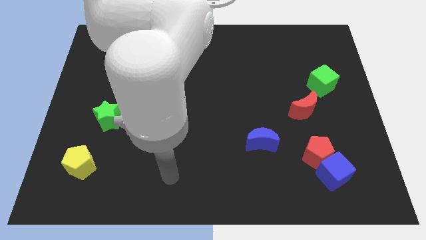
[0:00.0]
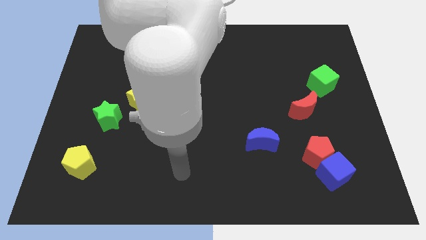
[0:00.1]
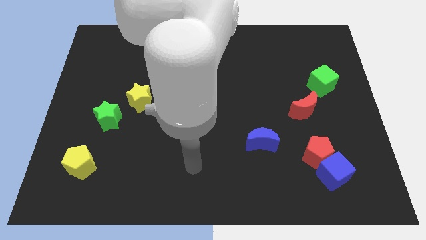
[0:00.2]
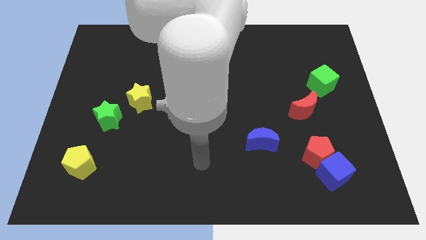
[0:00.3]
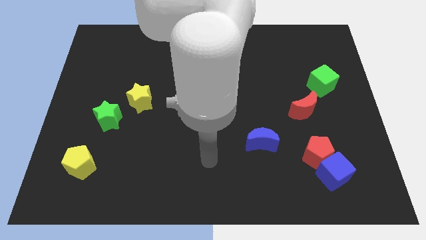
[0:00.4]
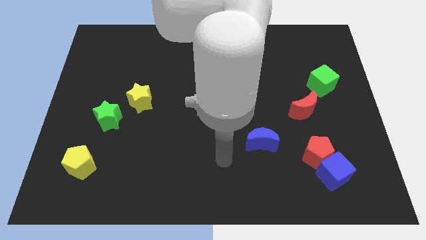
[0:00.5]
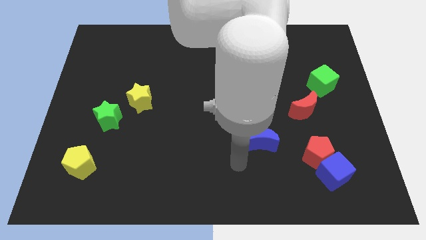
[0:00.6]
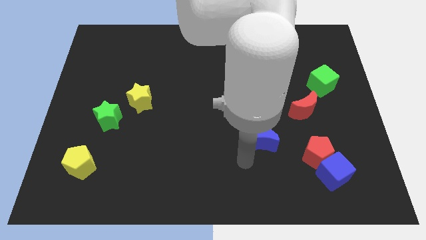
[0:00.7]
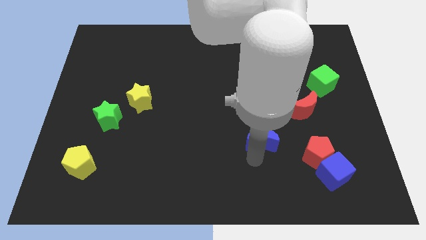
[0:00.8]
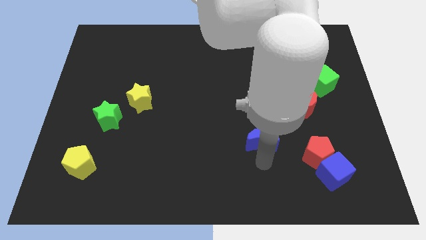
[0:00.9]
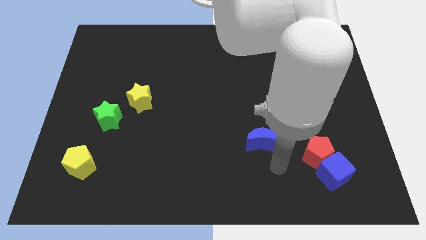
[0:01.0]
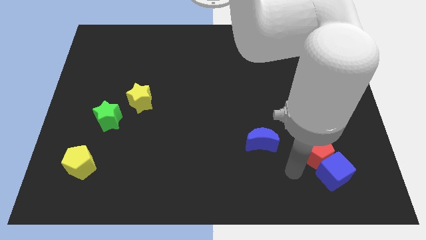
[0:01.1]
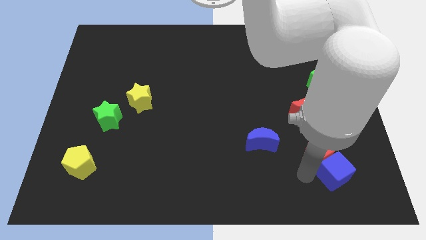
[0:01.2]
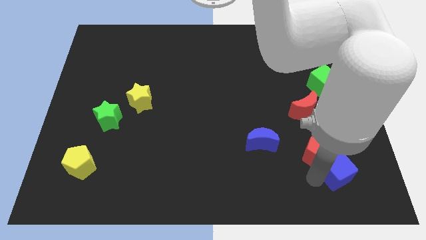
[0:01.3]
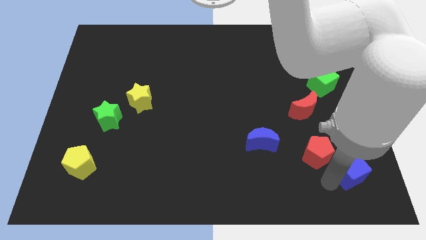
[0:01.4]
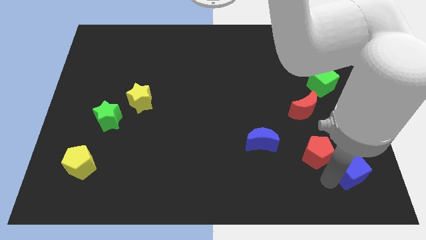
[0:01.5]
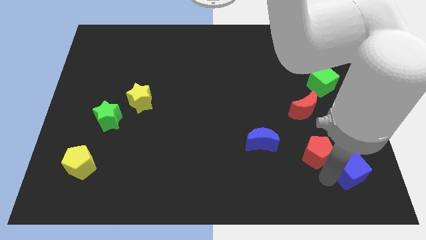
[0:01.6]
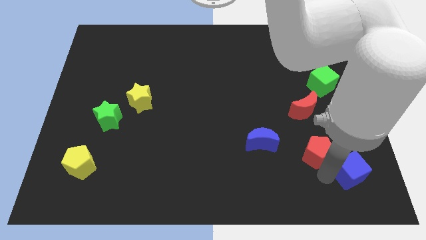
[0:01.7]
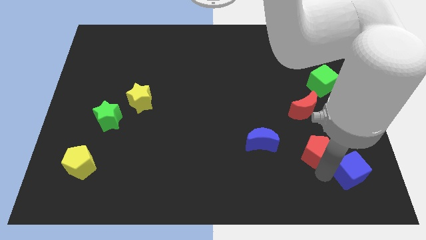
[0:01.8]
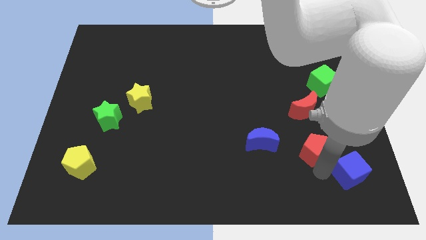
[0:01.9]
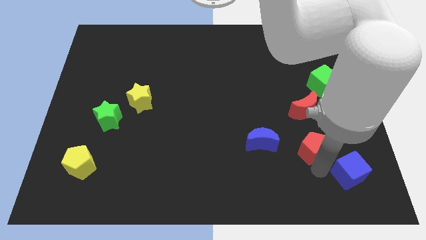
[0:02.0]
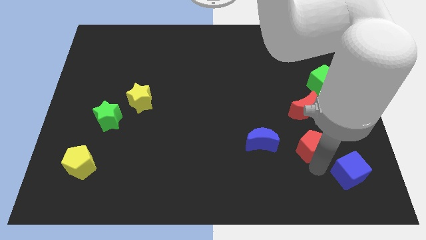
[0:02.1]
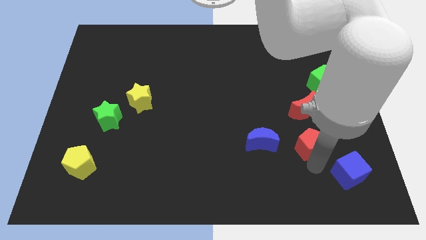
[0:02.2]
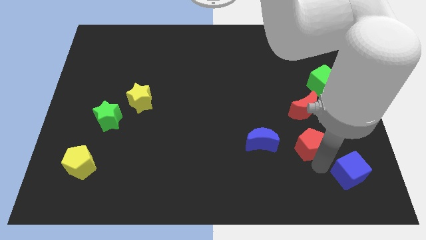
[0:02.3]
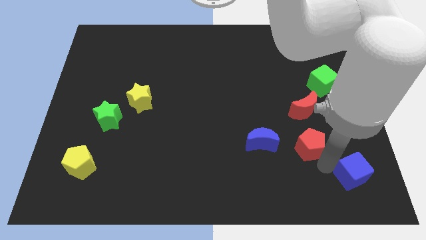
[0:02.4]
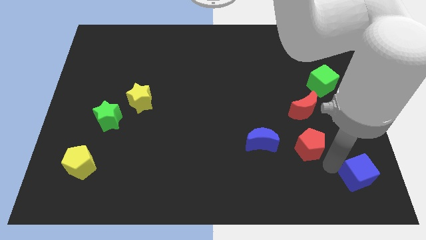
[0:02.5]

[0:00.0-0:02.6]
move the red pentagon away from the blue cube

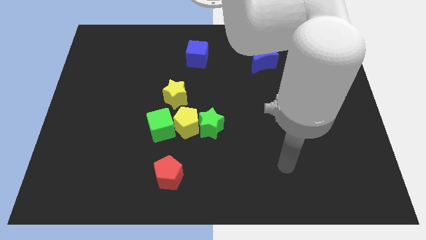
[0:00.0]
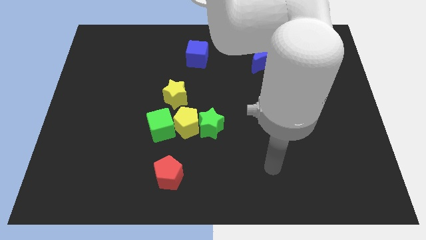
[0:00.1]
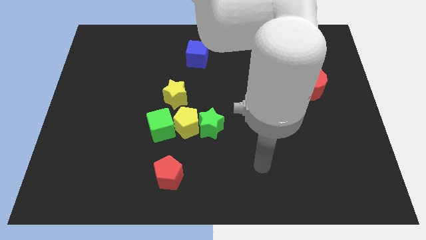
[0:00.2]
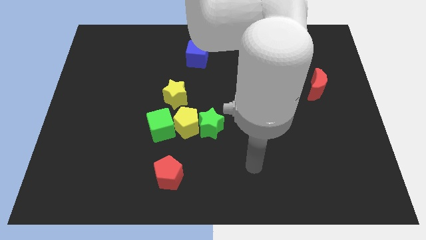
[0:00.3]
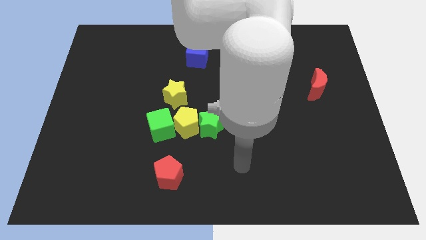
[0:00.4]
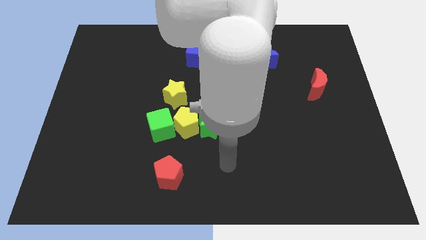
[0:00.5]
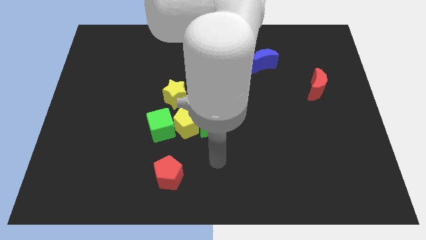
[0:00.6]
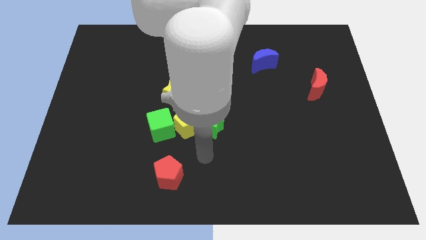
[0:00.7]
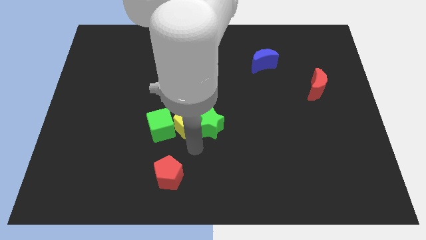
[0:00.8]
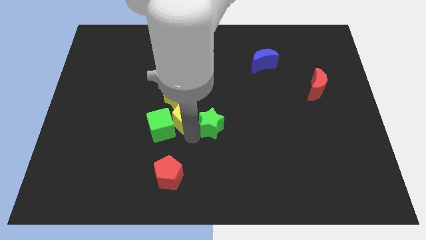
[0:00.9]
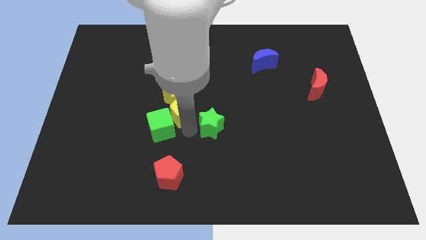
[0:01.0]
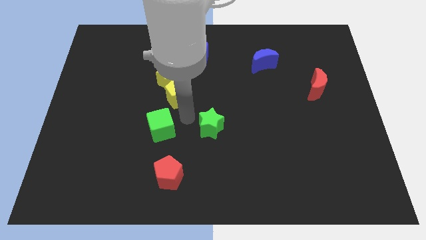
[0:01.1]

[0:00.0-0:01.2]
separate the green star from the yellow pentagon

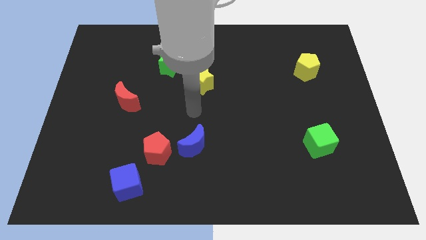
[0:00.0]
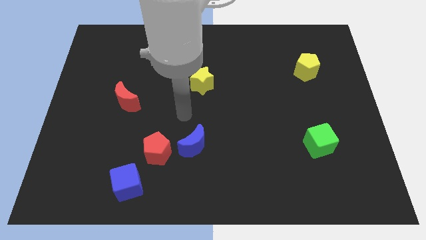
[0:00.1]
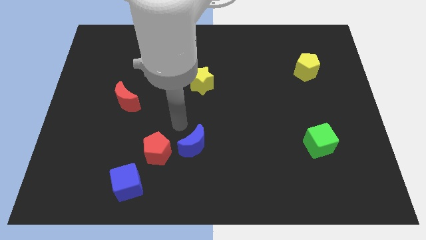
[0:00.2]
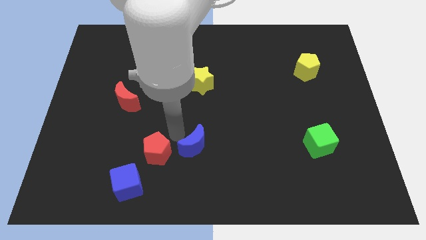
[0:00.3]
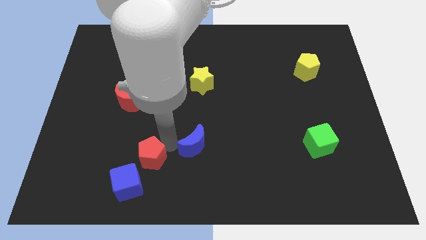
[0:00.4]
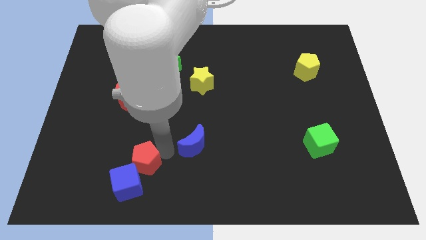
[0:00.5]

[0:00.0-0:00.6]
pull the blue moon apart from the red pentagon

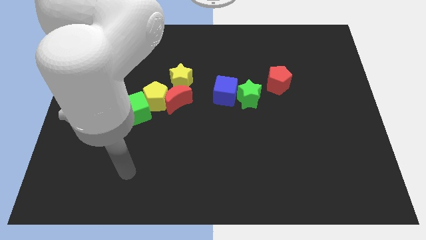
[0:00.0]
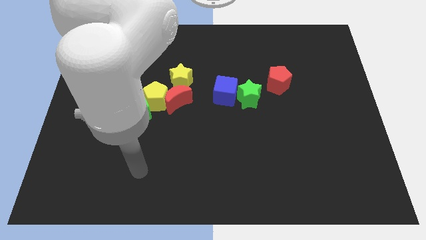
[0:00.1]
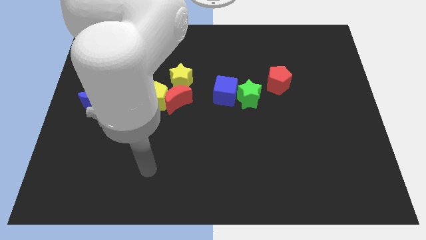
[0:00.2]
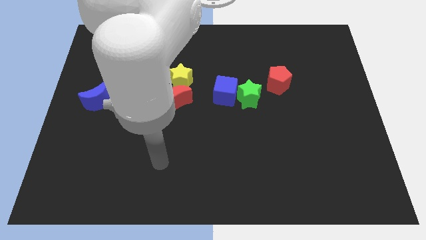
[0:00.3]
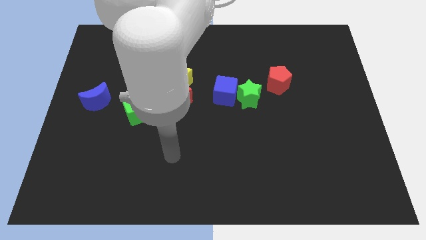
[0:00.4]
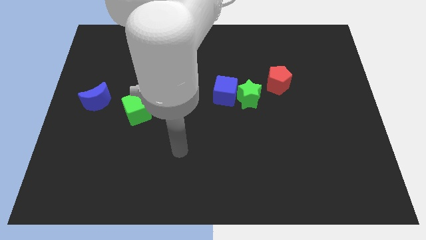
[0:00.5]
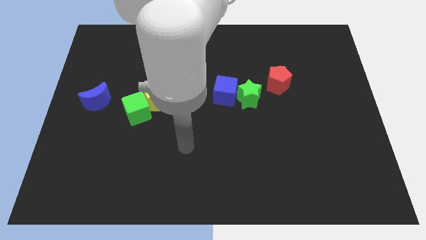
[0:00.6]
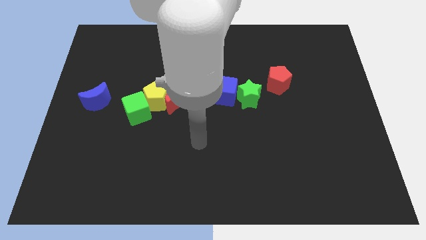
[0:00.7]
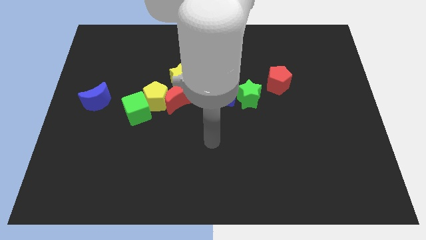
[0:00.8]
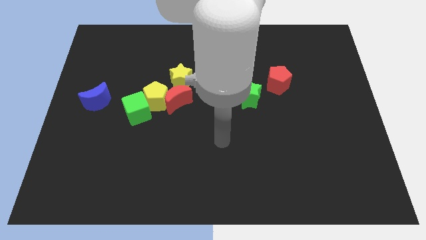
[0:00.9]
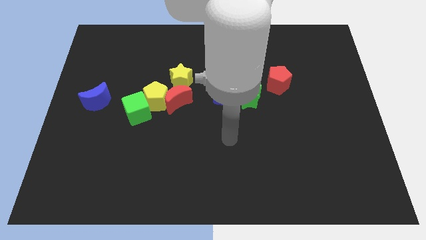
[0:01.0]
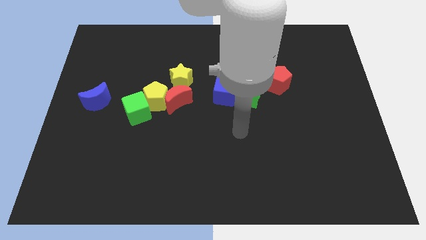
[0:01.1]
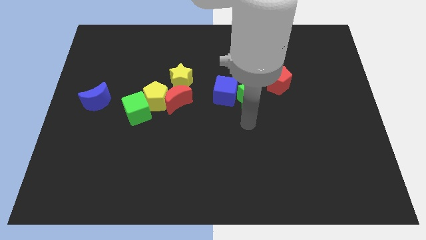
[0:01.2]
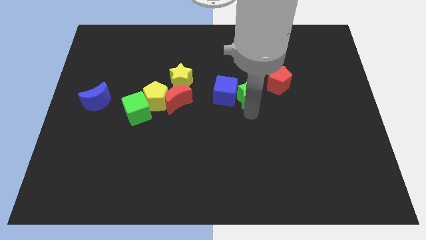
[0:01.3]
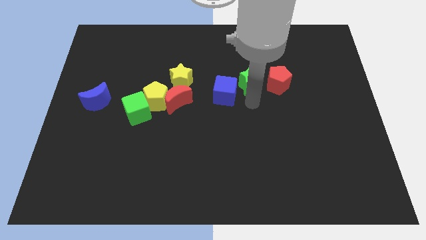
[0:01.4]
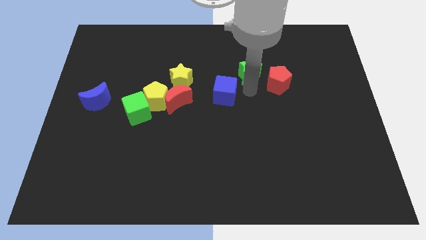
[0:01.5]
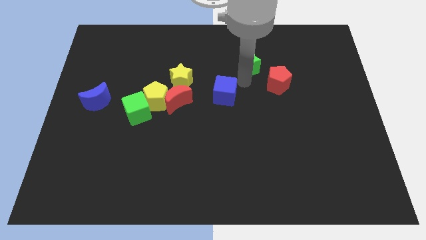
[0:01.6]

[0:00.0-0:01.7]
separate the blue cube from the green star

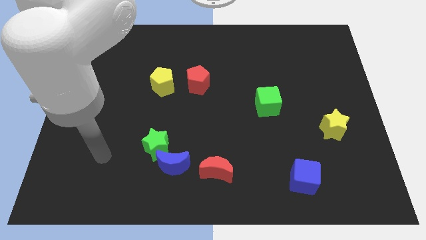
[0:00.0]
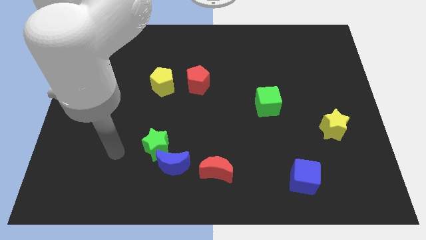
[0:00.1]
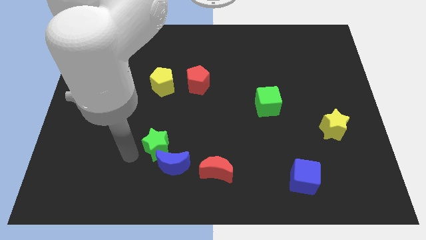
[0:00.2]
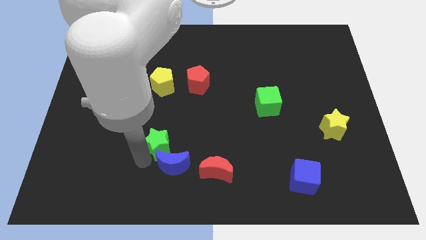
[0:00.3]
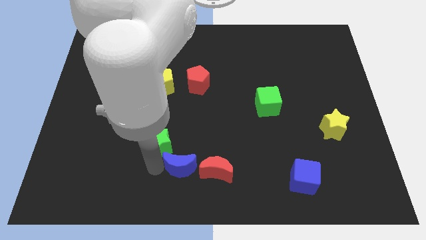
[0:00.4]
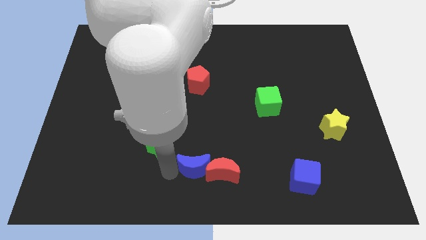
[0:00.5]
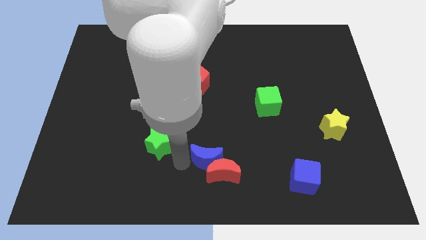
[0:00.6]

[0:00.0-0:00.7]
separate the green star from the blue moon

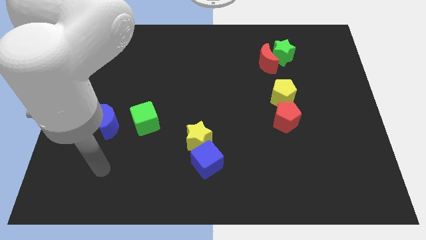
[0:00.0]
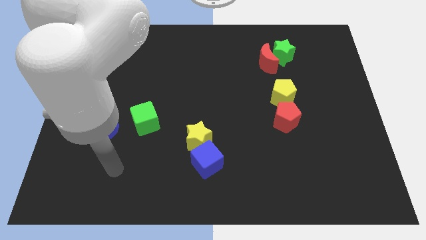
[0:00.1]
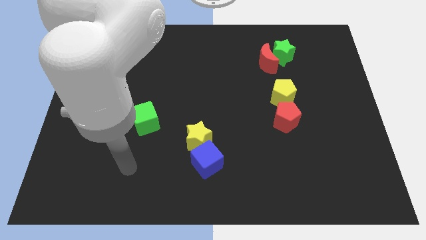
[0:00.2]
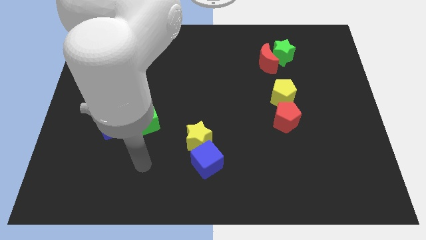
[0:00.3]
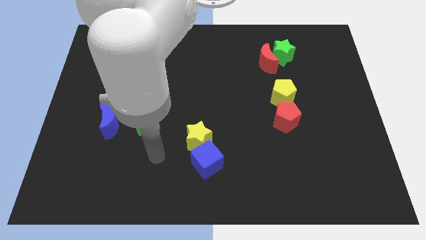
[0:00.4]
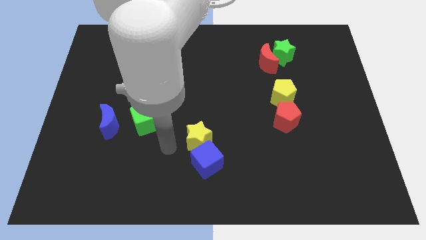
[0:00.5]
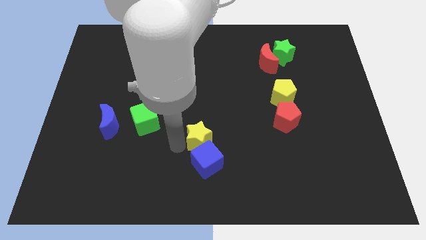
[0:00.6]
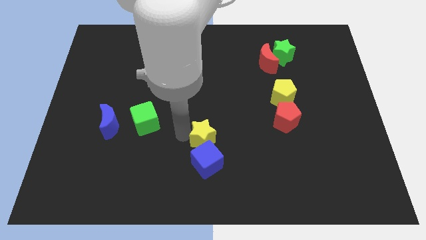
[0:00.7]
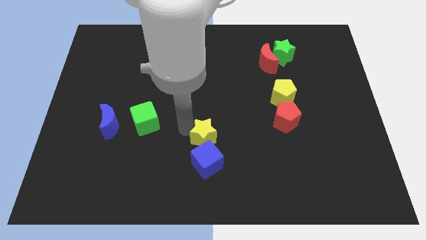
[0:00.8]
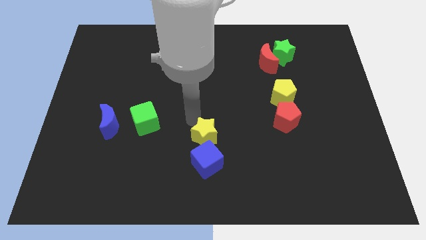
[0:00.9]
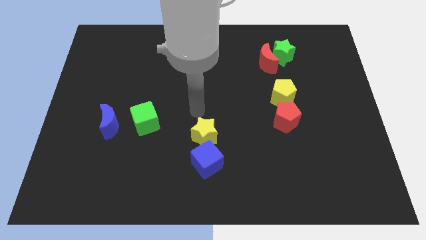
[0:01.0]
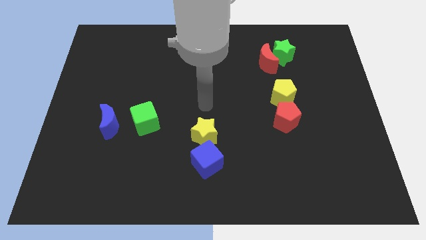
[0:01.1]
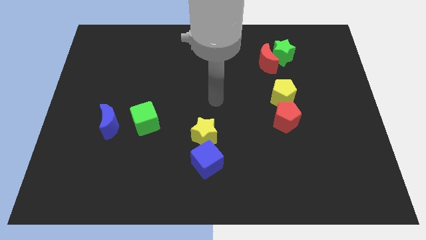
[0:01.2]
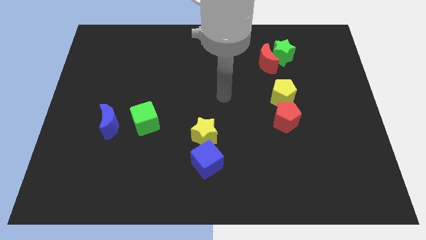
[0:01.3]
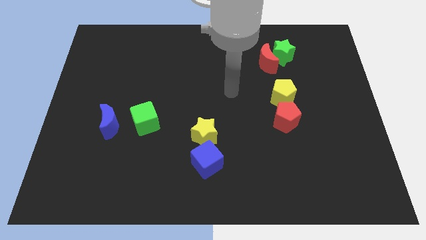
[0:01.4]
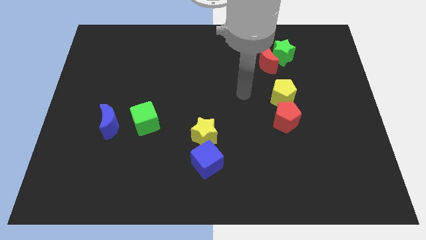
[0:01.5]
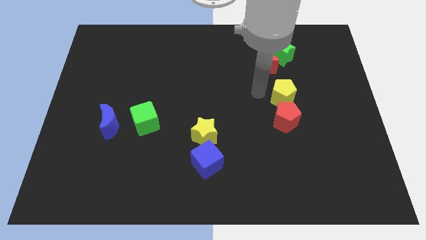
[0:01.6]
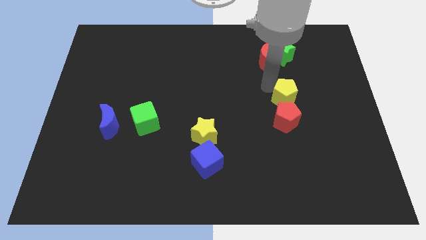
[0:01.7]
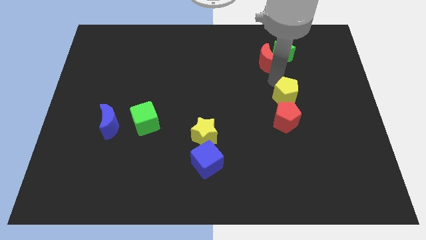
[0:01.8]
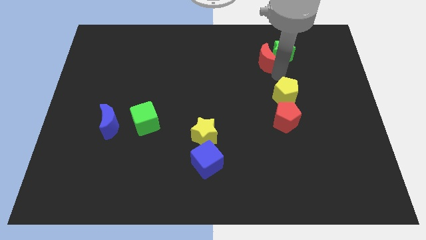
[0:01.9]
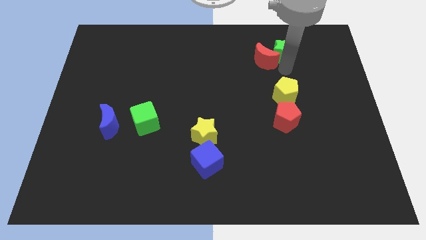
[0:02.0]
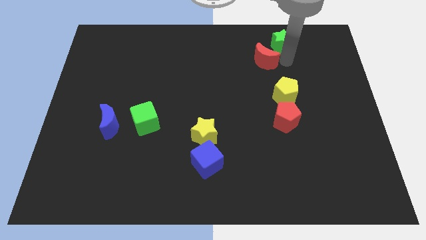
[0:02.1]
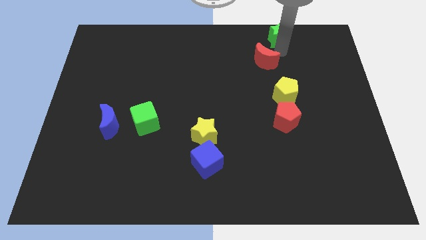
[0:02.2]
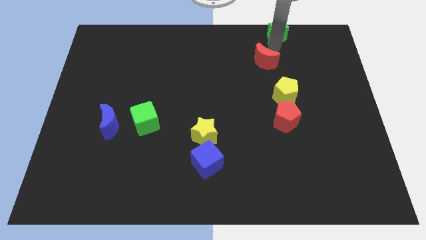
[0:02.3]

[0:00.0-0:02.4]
pull the red moon apart from the green star

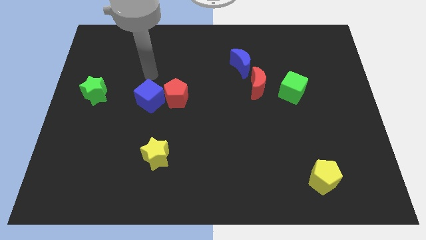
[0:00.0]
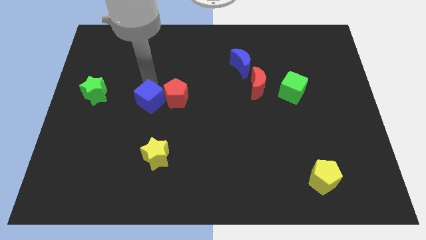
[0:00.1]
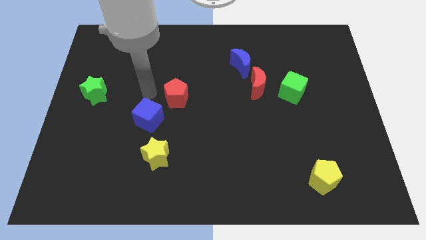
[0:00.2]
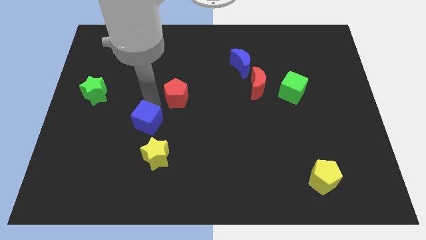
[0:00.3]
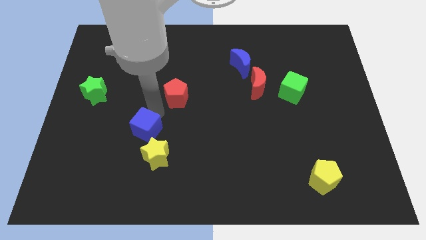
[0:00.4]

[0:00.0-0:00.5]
pull the red pentagon apart from the blue cube
